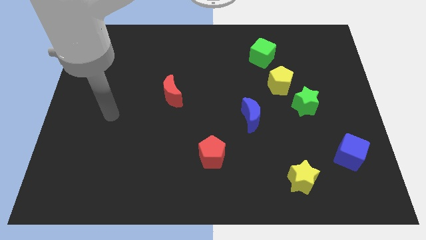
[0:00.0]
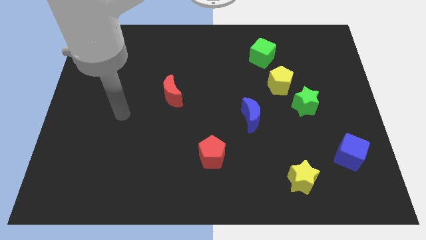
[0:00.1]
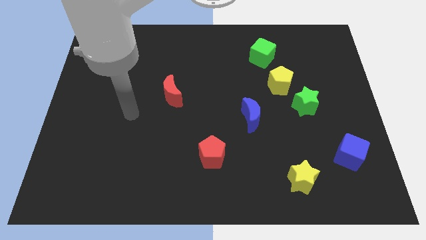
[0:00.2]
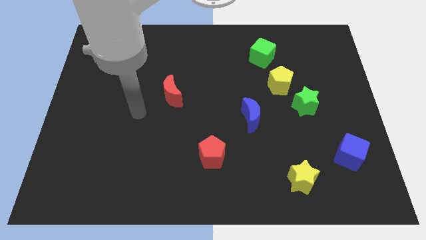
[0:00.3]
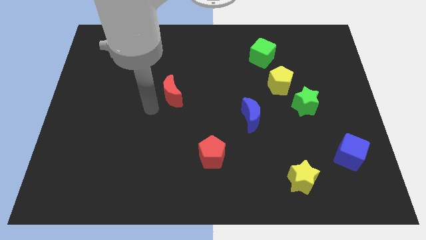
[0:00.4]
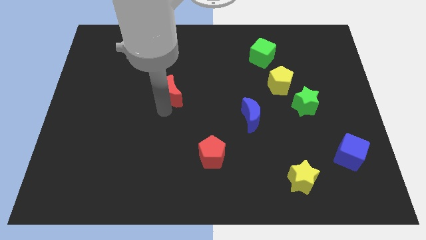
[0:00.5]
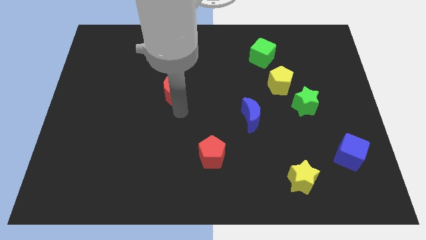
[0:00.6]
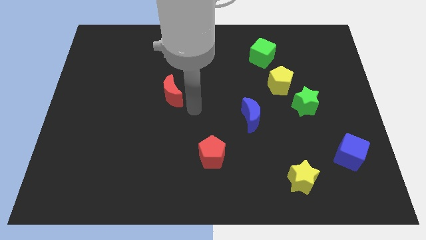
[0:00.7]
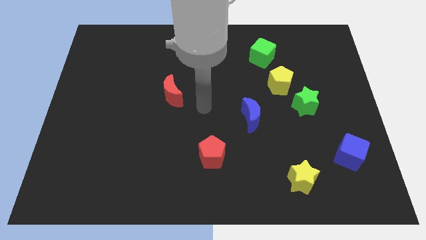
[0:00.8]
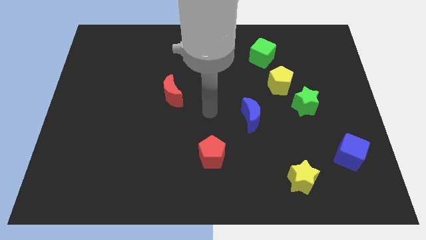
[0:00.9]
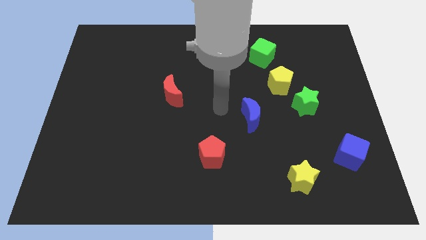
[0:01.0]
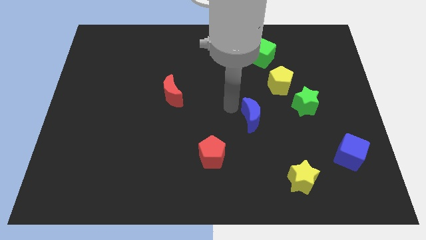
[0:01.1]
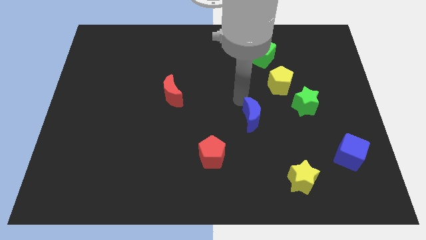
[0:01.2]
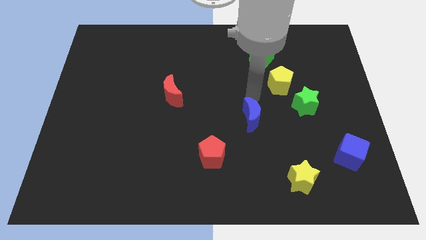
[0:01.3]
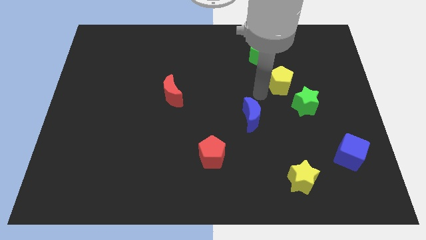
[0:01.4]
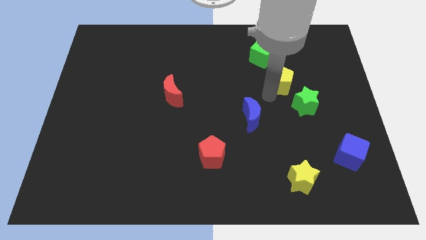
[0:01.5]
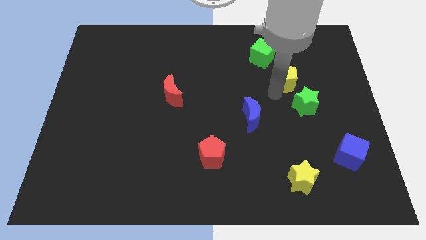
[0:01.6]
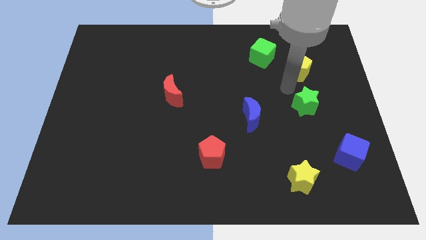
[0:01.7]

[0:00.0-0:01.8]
pull the green star apart from the yellow pentagon

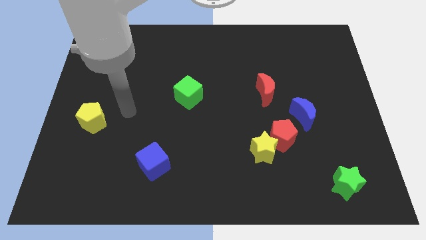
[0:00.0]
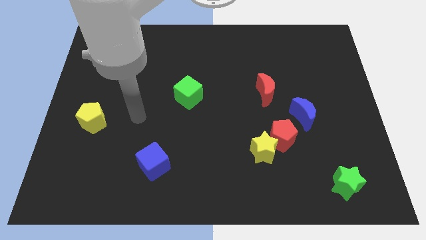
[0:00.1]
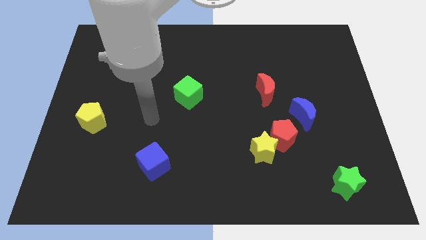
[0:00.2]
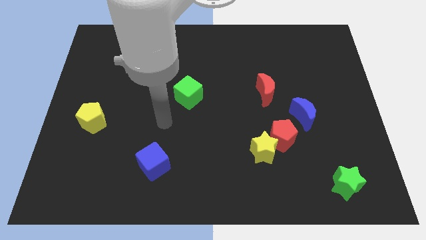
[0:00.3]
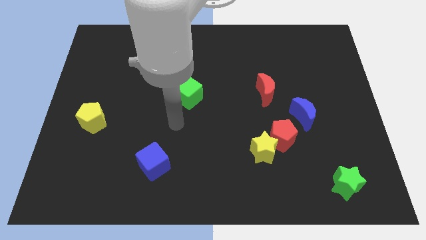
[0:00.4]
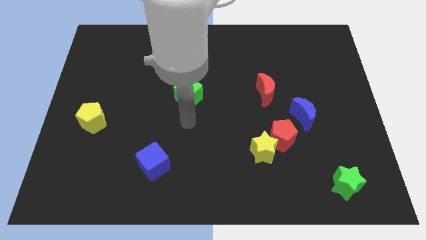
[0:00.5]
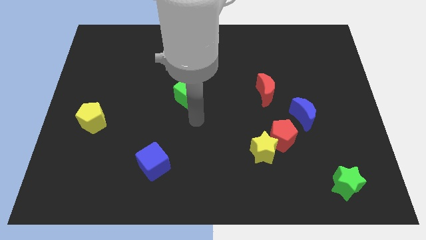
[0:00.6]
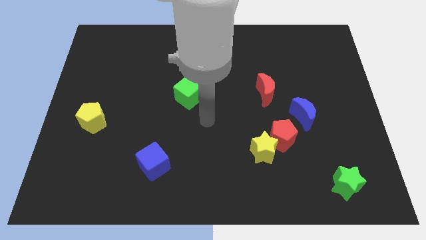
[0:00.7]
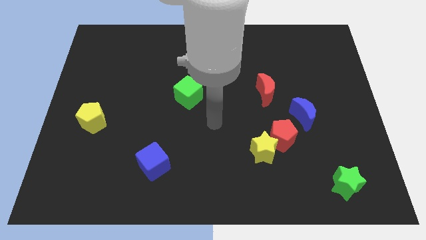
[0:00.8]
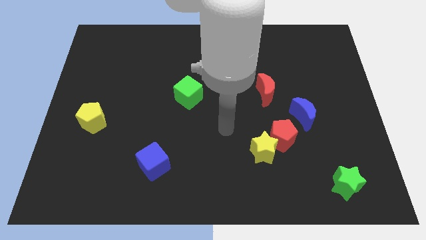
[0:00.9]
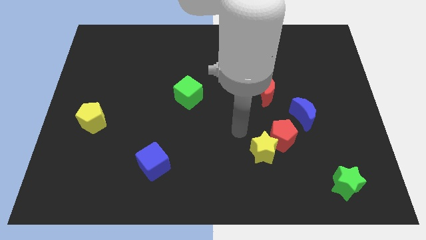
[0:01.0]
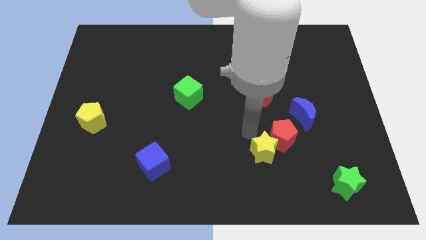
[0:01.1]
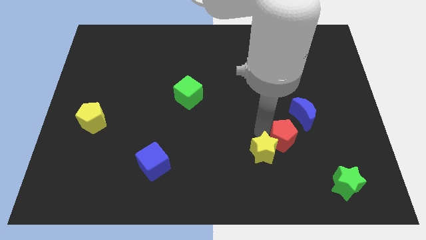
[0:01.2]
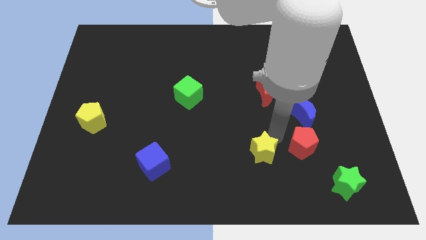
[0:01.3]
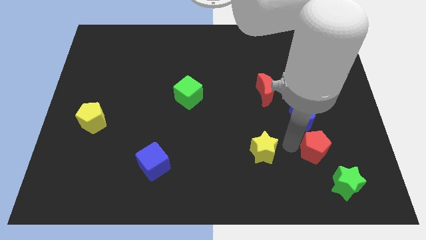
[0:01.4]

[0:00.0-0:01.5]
pull the yellow star apart from the red pentagon

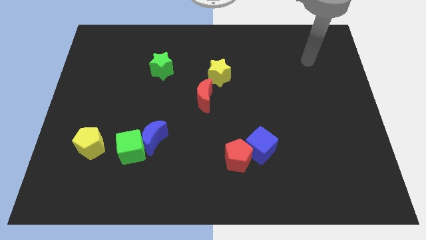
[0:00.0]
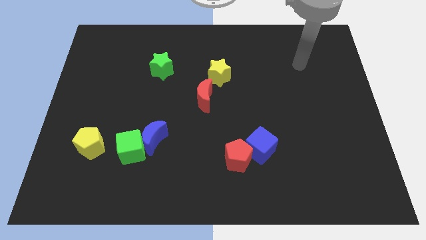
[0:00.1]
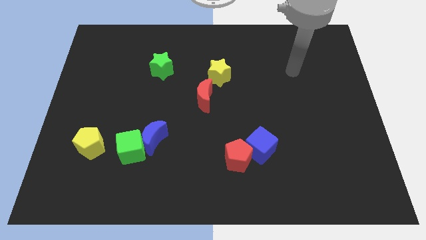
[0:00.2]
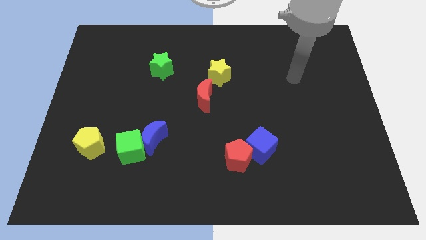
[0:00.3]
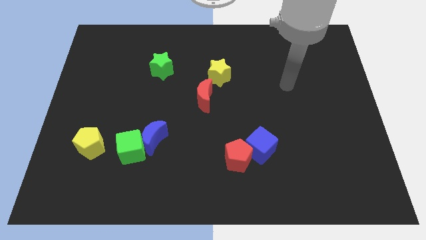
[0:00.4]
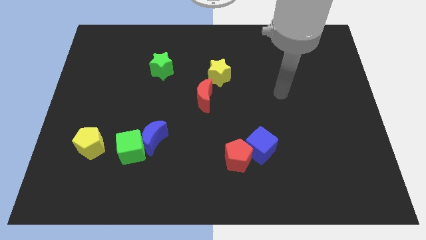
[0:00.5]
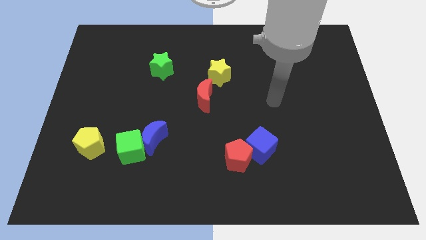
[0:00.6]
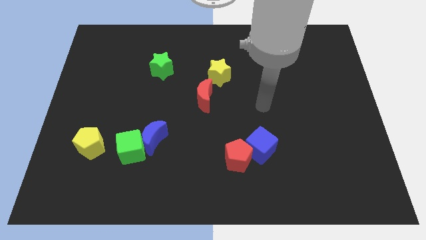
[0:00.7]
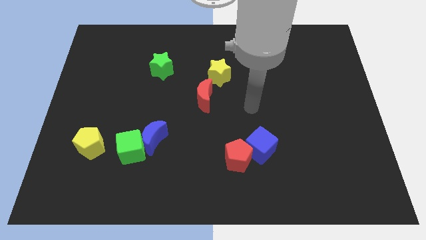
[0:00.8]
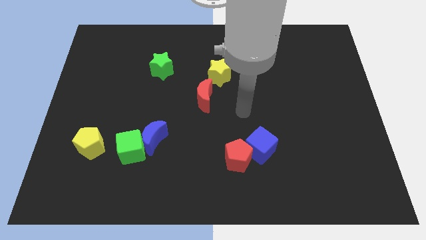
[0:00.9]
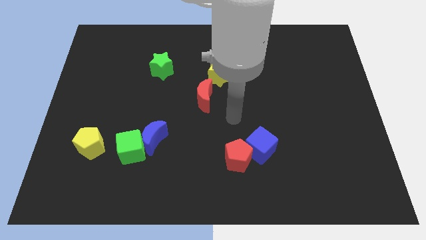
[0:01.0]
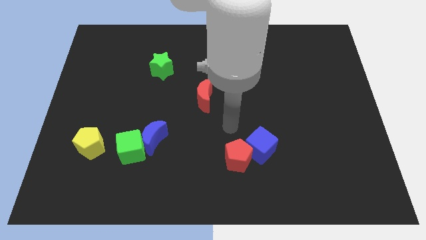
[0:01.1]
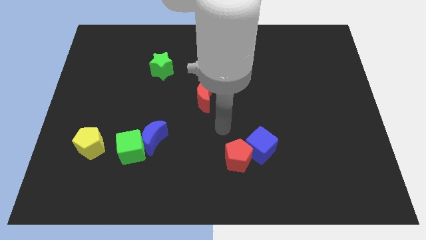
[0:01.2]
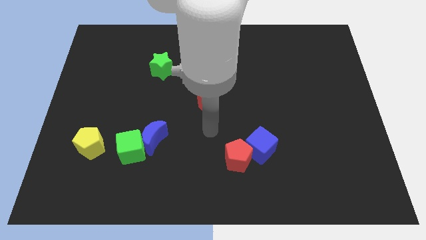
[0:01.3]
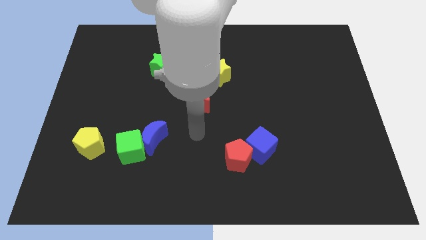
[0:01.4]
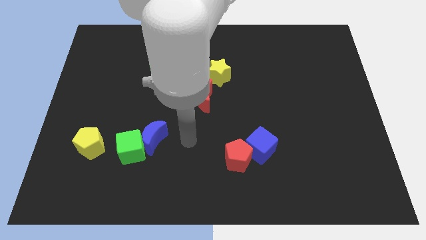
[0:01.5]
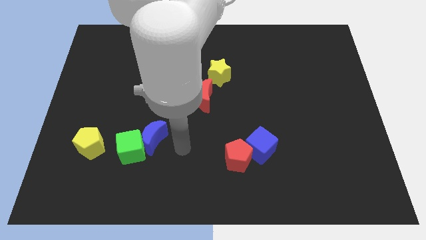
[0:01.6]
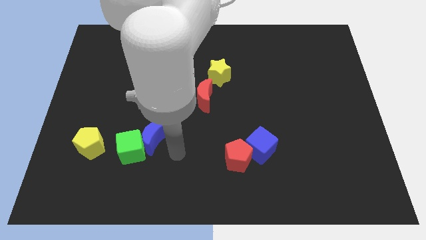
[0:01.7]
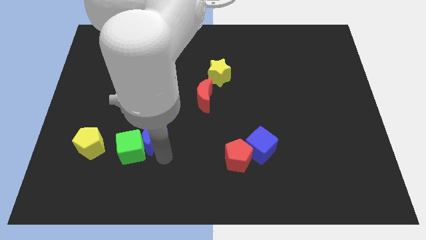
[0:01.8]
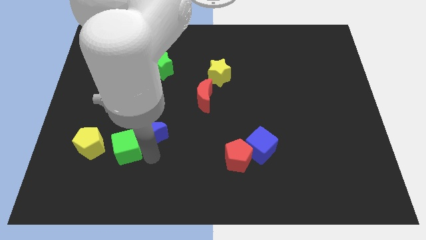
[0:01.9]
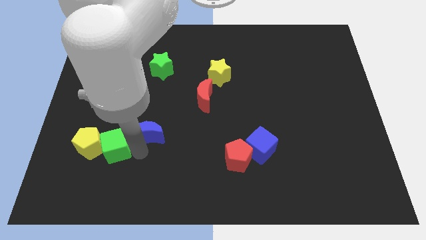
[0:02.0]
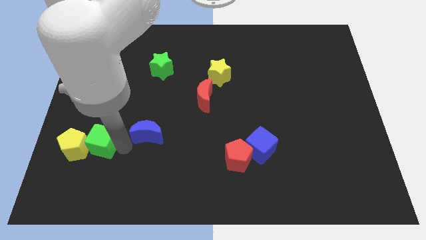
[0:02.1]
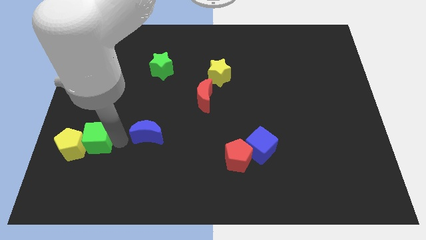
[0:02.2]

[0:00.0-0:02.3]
separate the blue moon from the green cube

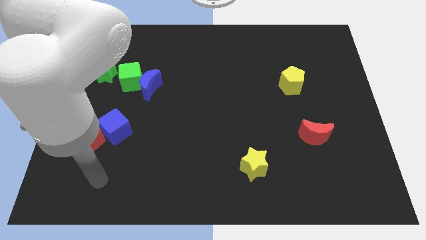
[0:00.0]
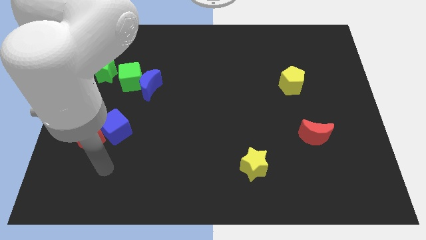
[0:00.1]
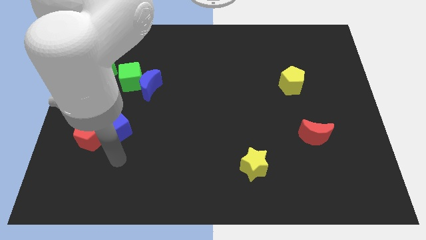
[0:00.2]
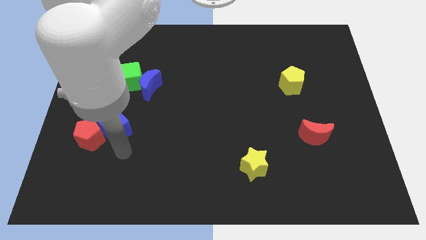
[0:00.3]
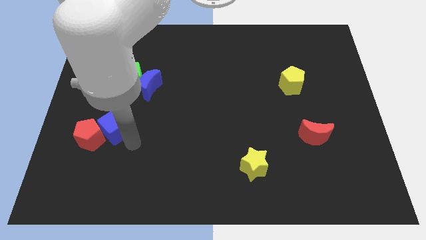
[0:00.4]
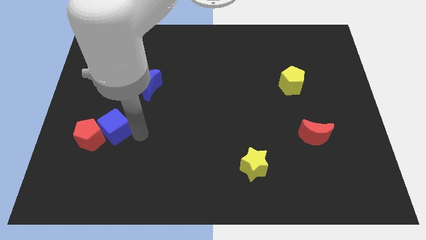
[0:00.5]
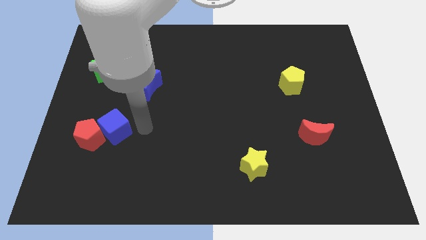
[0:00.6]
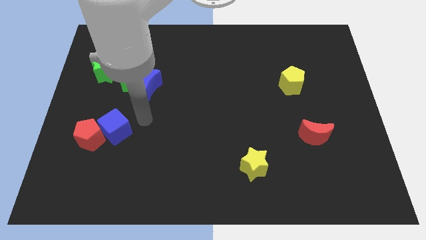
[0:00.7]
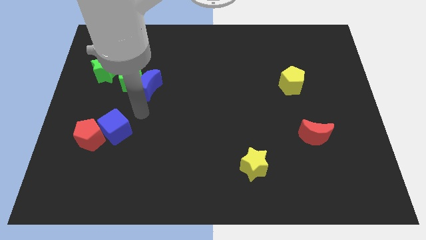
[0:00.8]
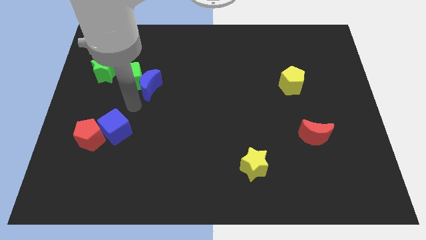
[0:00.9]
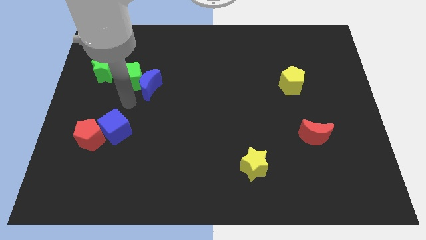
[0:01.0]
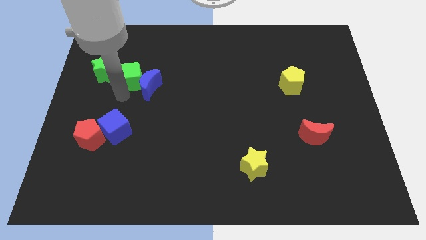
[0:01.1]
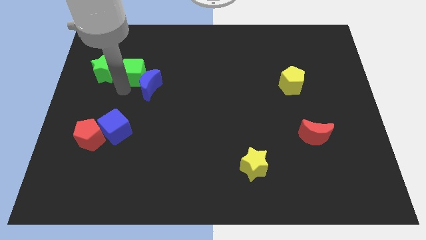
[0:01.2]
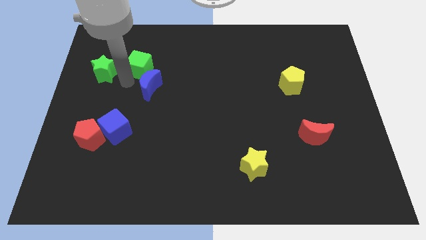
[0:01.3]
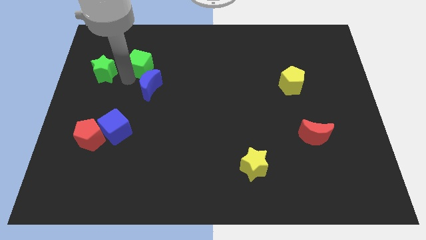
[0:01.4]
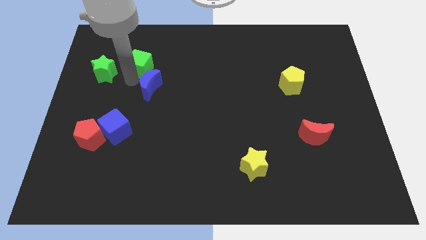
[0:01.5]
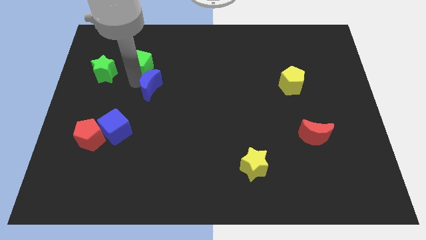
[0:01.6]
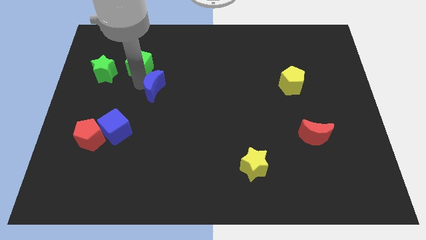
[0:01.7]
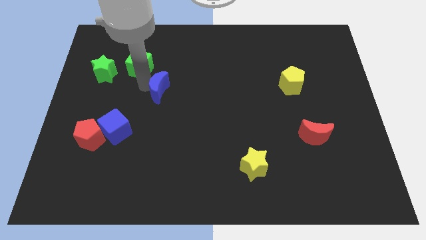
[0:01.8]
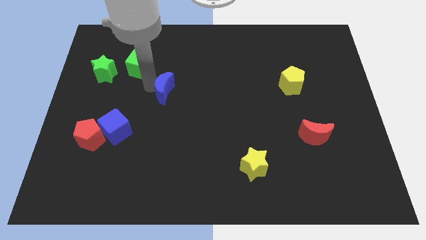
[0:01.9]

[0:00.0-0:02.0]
pull the blue moon apart from the green cube

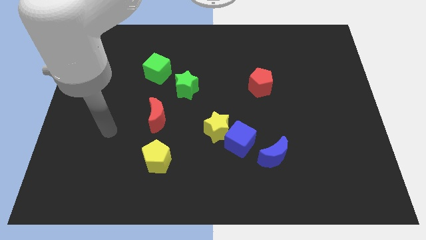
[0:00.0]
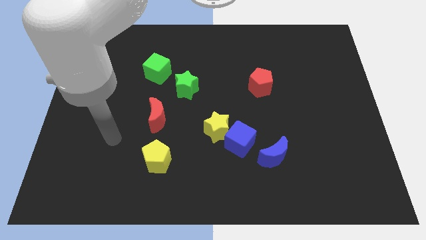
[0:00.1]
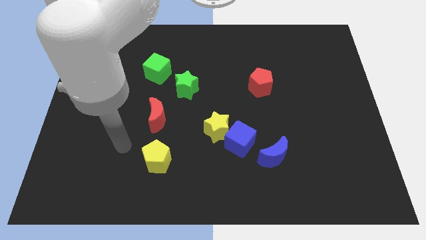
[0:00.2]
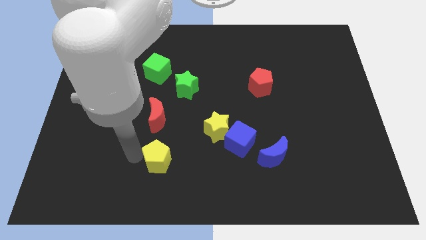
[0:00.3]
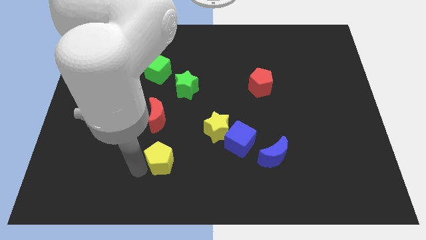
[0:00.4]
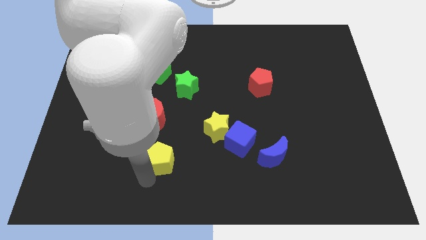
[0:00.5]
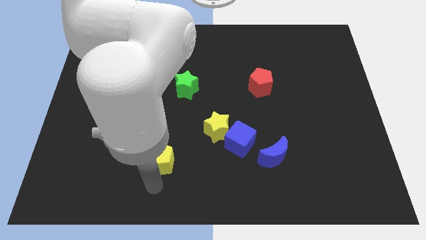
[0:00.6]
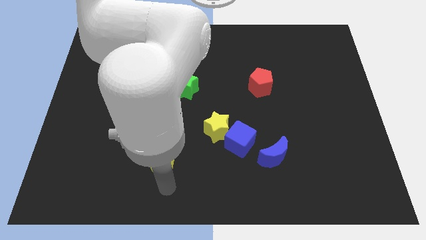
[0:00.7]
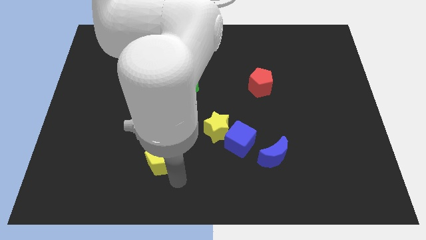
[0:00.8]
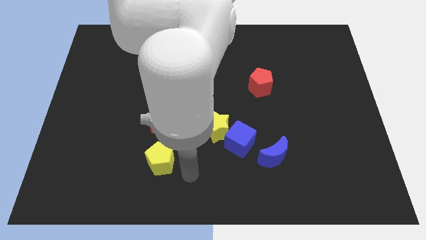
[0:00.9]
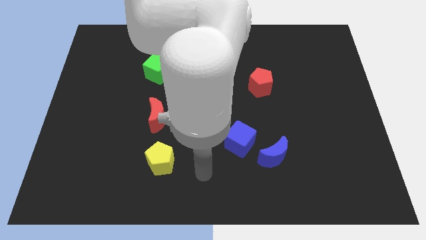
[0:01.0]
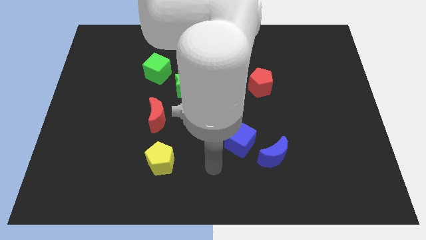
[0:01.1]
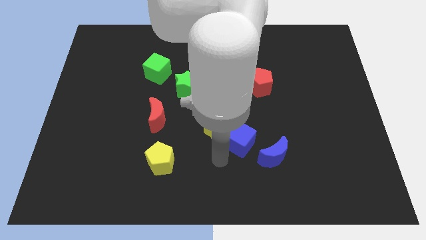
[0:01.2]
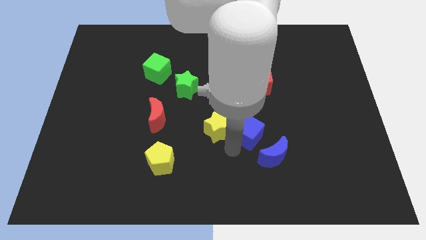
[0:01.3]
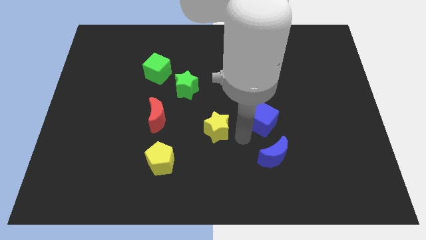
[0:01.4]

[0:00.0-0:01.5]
pull the yellow star apart from the blue cube

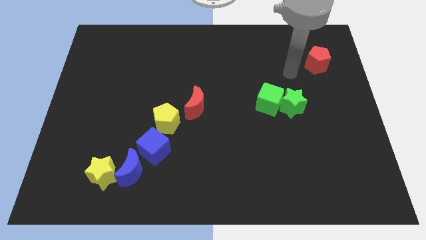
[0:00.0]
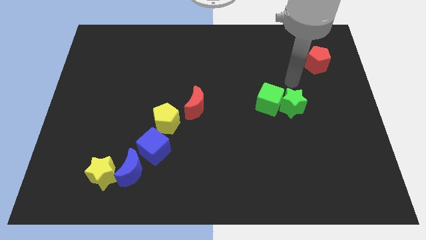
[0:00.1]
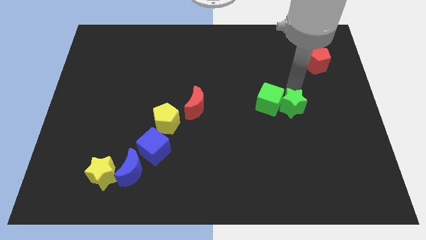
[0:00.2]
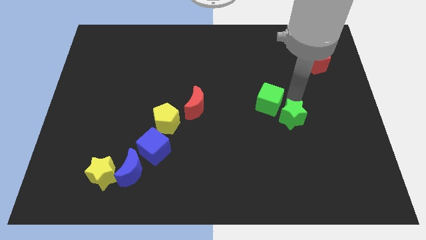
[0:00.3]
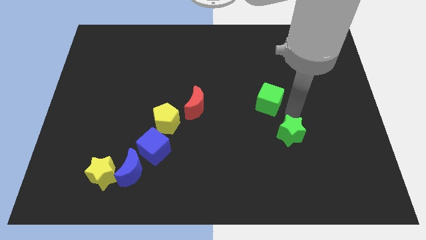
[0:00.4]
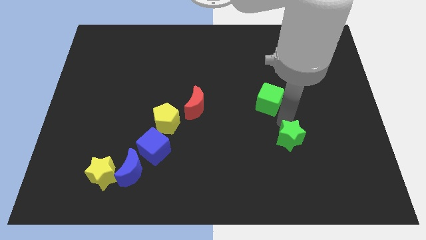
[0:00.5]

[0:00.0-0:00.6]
pull the green cube apart from the green star
